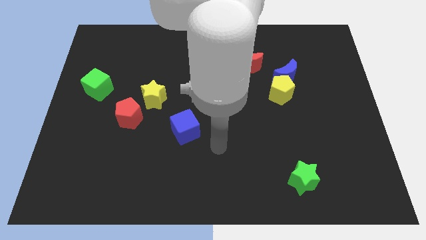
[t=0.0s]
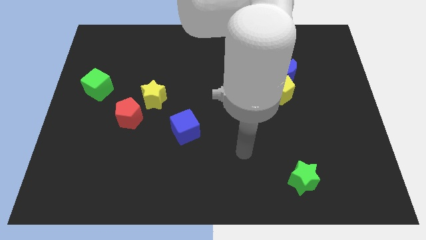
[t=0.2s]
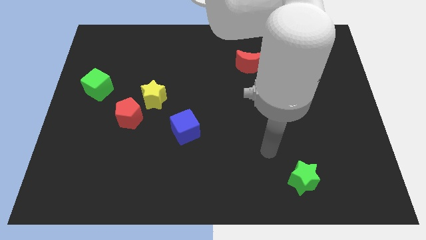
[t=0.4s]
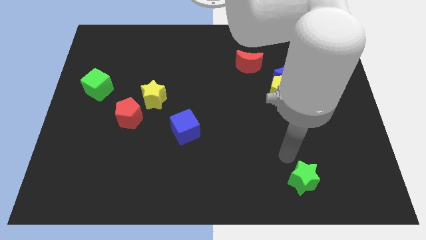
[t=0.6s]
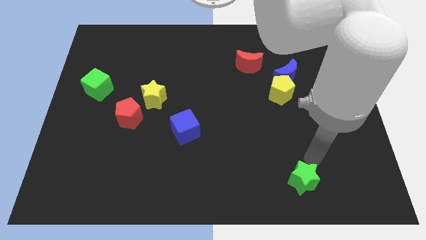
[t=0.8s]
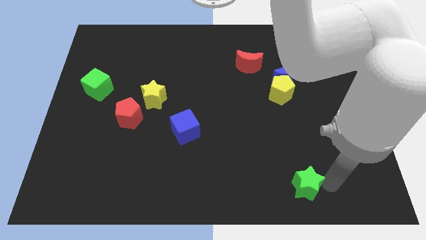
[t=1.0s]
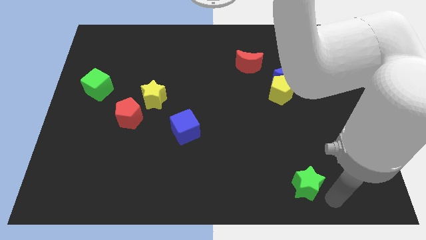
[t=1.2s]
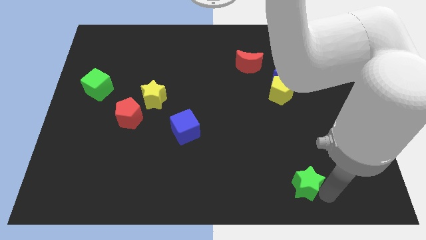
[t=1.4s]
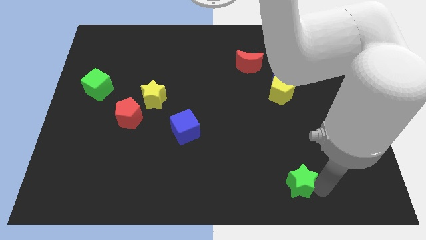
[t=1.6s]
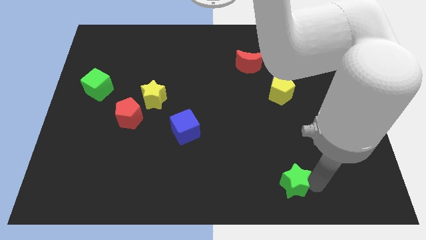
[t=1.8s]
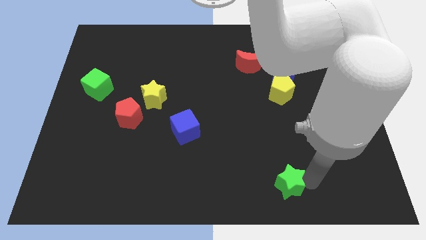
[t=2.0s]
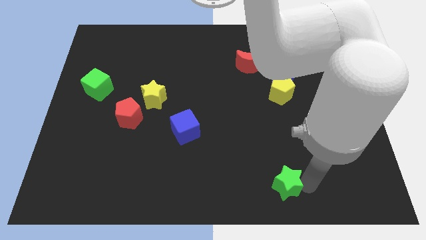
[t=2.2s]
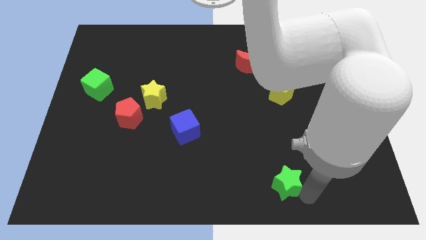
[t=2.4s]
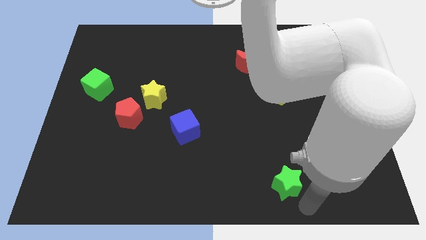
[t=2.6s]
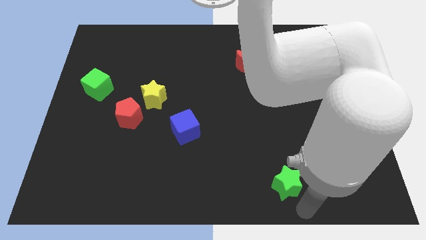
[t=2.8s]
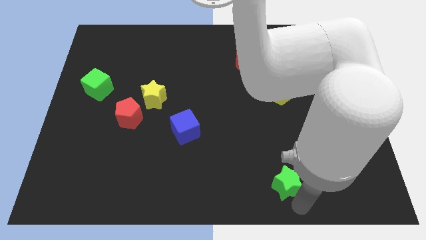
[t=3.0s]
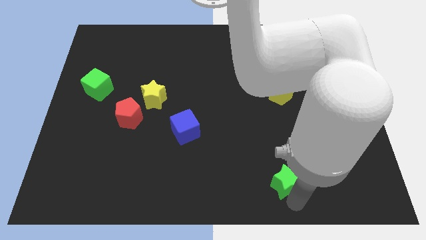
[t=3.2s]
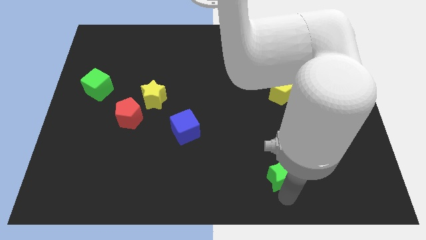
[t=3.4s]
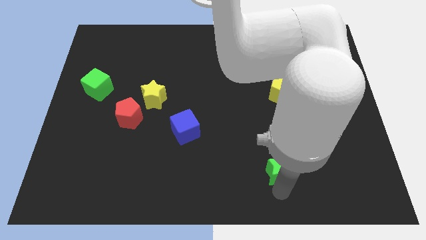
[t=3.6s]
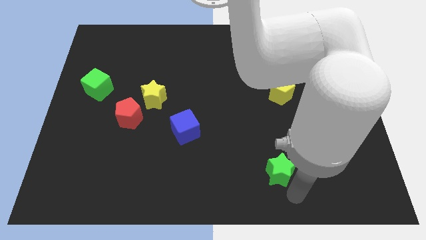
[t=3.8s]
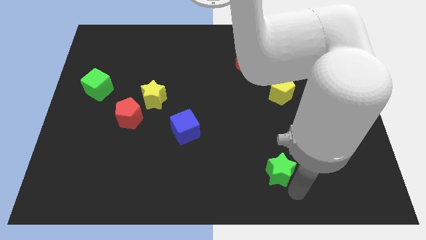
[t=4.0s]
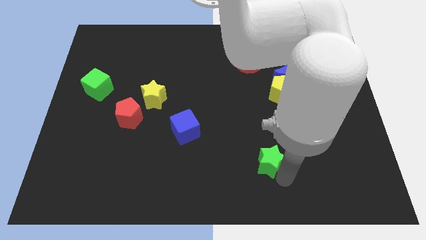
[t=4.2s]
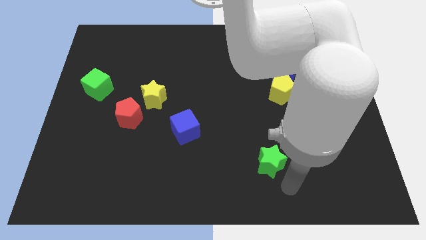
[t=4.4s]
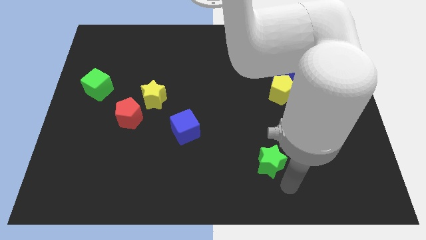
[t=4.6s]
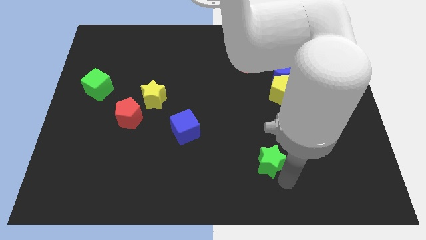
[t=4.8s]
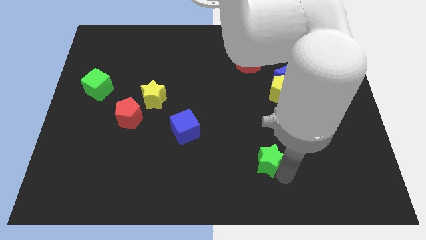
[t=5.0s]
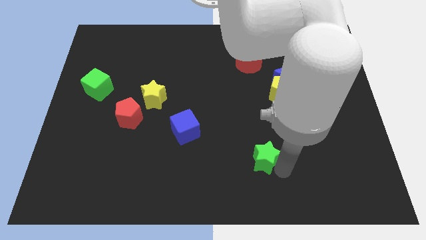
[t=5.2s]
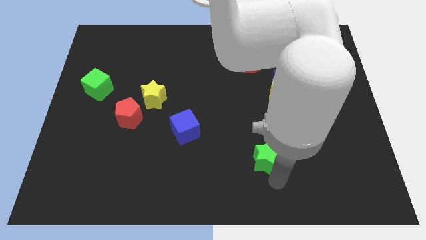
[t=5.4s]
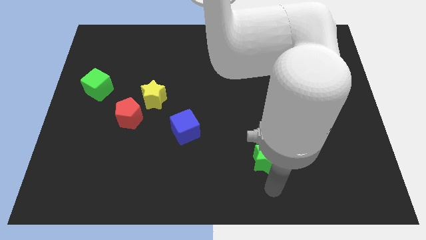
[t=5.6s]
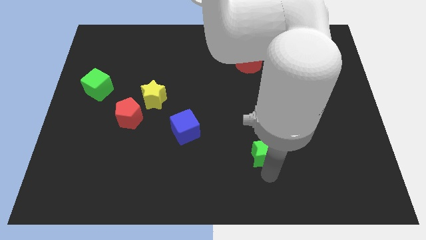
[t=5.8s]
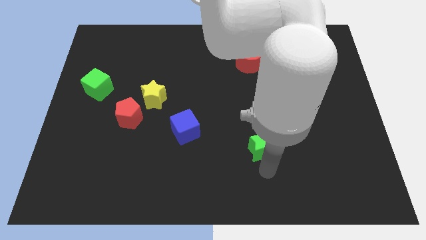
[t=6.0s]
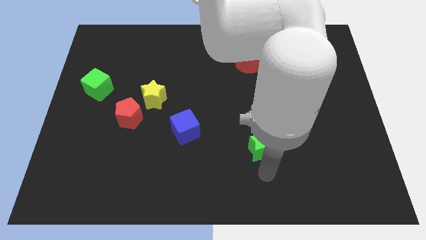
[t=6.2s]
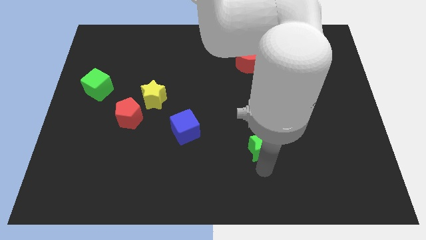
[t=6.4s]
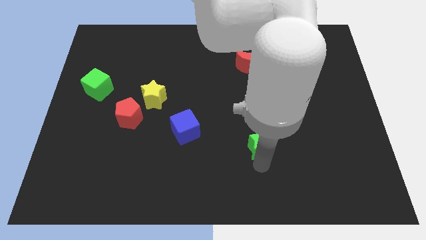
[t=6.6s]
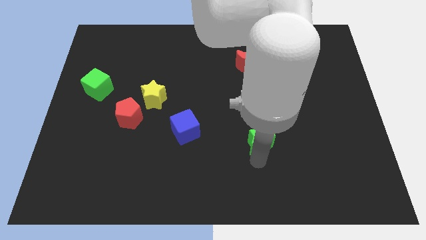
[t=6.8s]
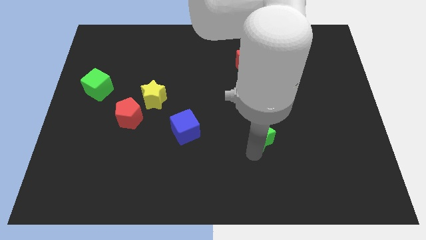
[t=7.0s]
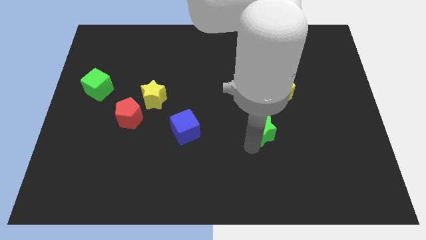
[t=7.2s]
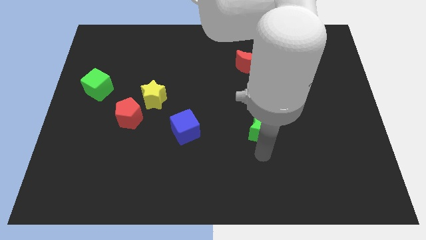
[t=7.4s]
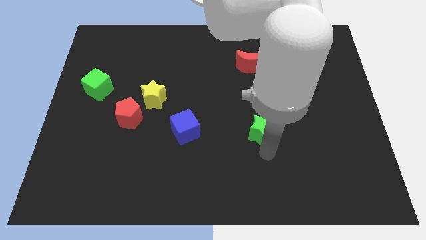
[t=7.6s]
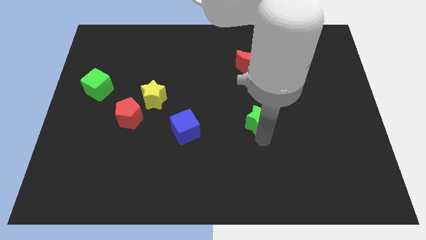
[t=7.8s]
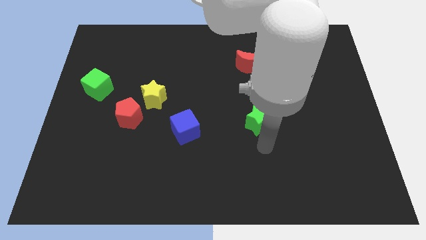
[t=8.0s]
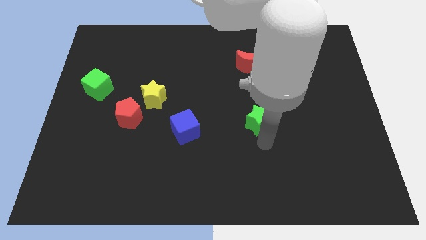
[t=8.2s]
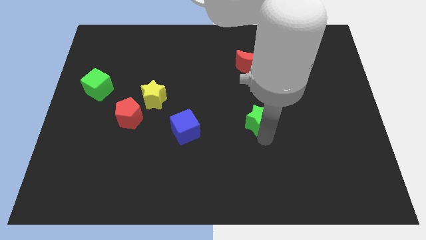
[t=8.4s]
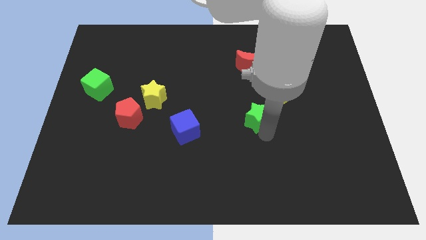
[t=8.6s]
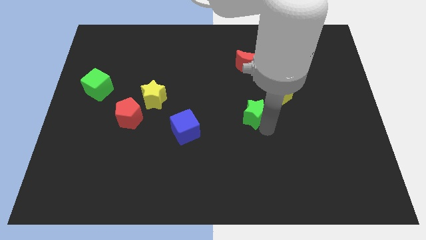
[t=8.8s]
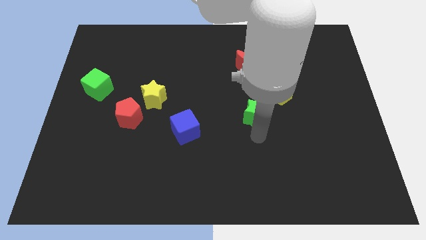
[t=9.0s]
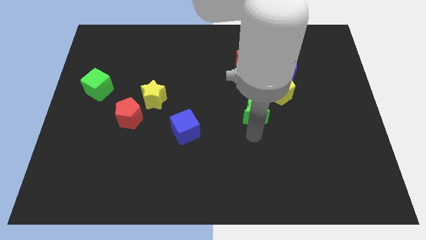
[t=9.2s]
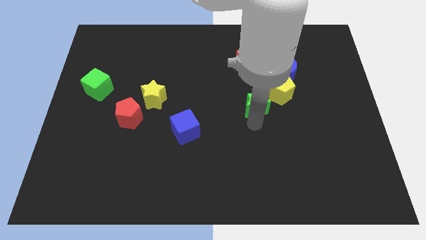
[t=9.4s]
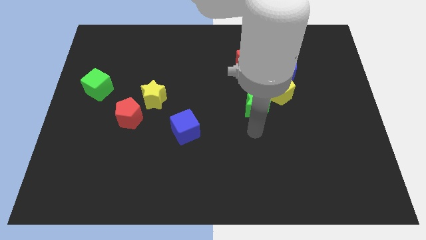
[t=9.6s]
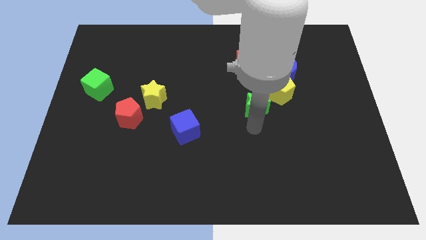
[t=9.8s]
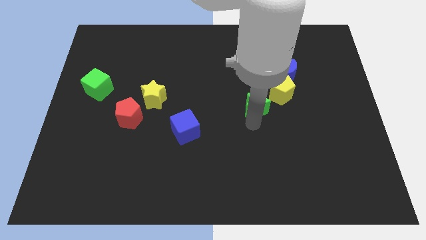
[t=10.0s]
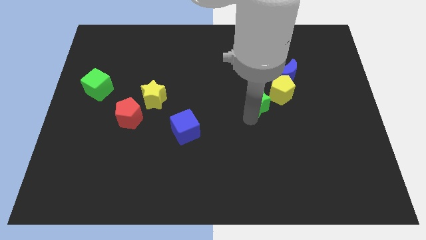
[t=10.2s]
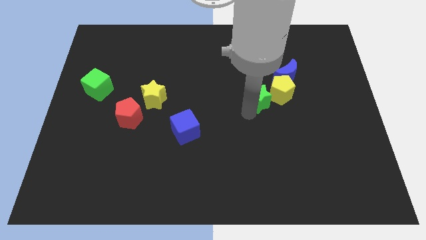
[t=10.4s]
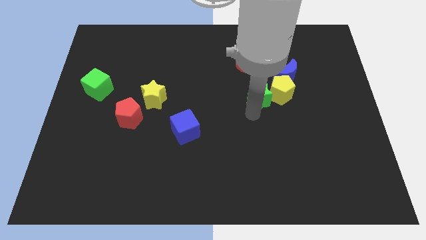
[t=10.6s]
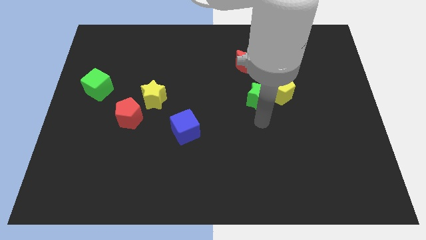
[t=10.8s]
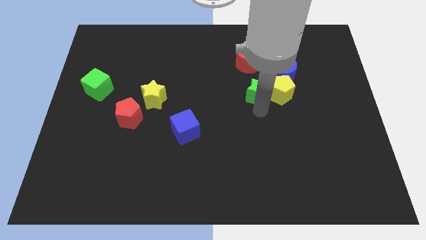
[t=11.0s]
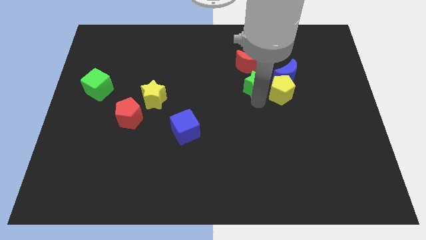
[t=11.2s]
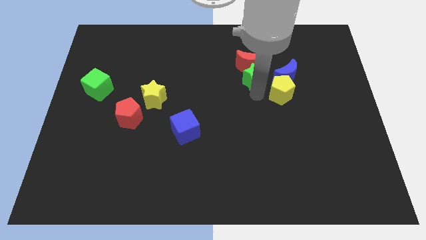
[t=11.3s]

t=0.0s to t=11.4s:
push the green star to the red moon

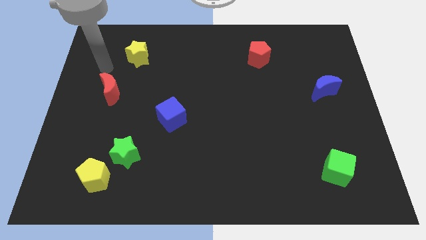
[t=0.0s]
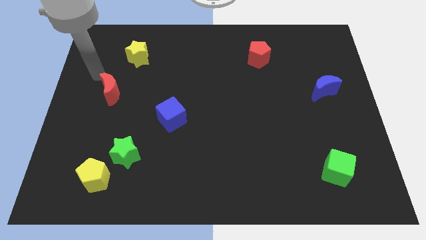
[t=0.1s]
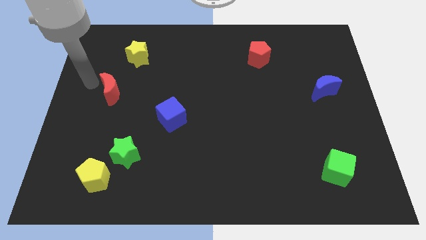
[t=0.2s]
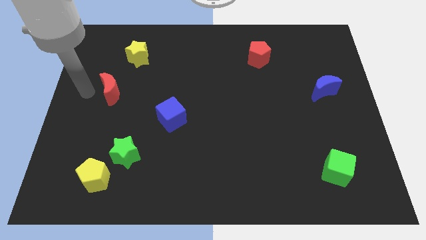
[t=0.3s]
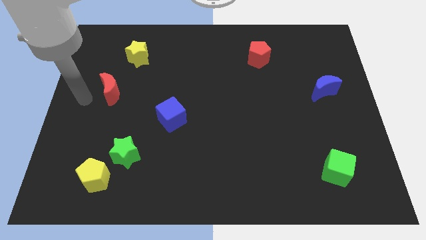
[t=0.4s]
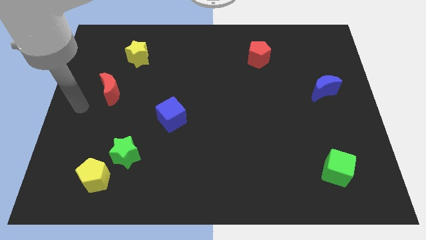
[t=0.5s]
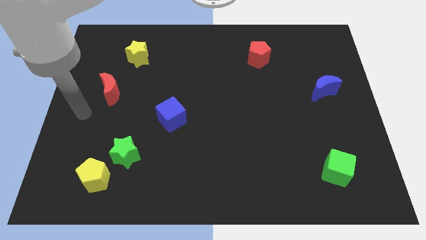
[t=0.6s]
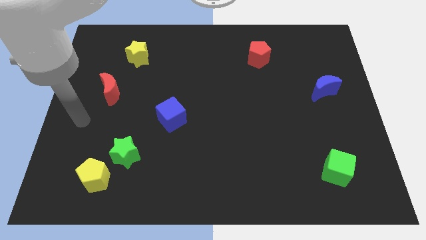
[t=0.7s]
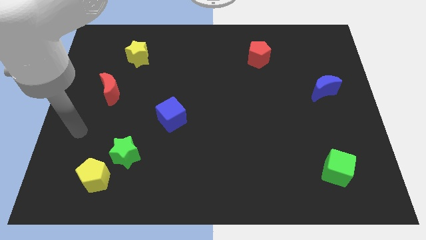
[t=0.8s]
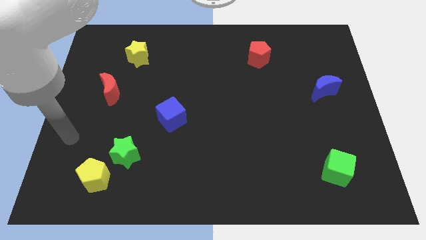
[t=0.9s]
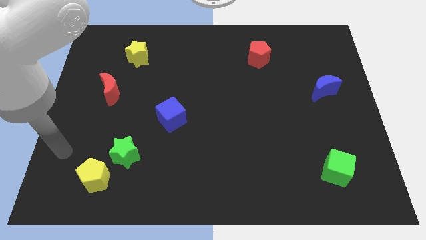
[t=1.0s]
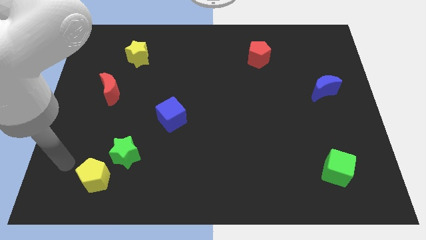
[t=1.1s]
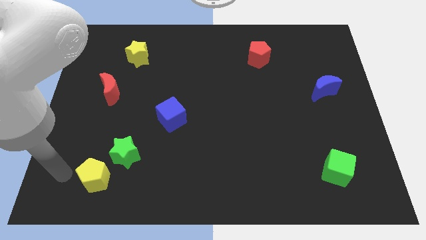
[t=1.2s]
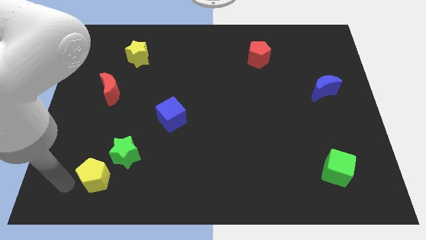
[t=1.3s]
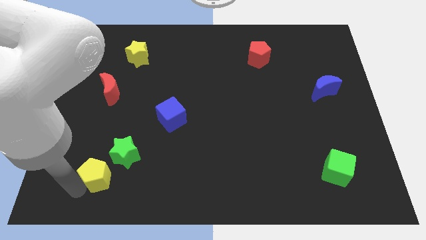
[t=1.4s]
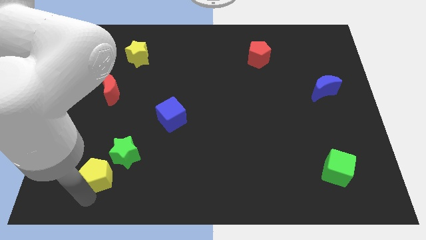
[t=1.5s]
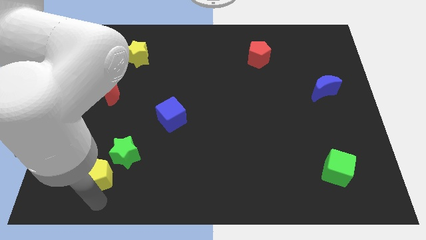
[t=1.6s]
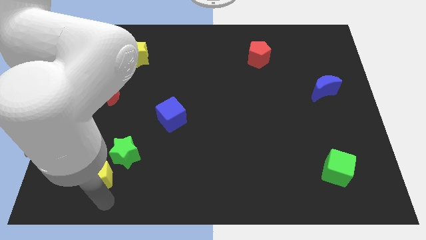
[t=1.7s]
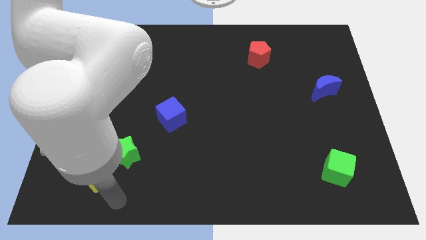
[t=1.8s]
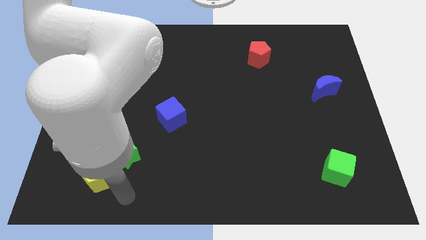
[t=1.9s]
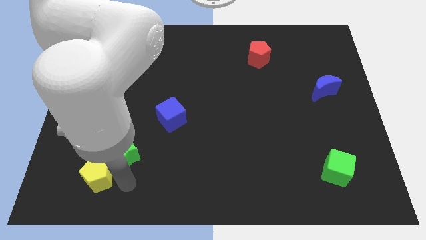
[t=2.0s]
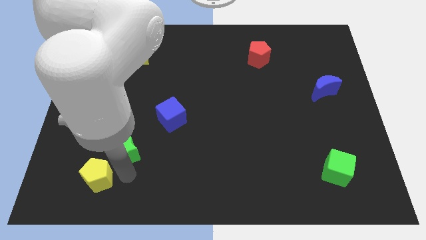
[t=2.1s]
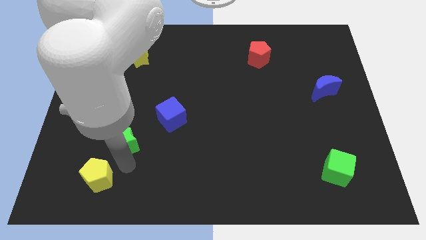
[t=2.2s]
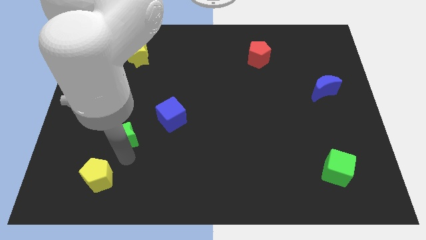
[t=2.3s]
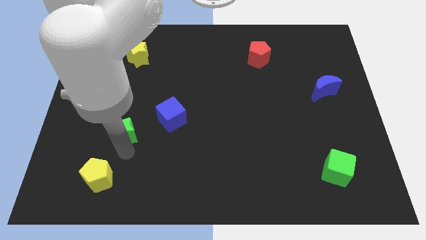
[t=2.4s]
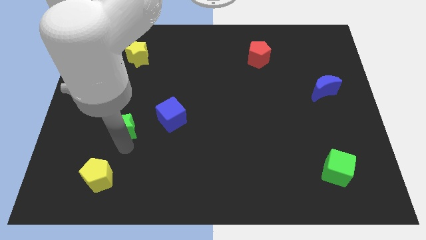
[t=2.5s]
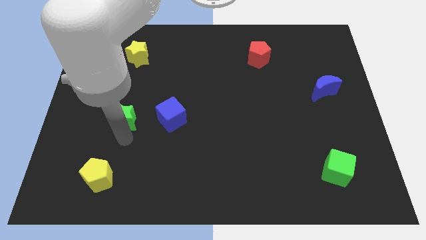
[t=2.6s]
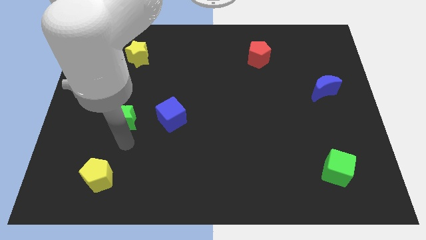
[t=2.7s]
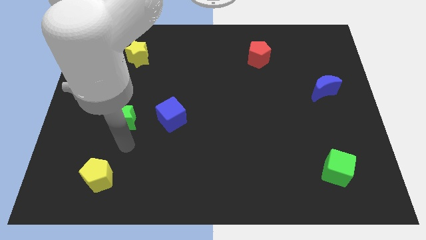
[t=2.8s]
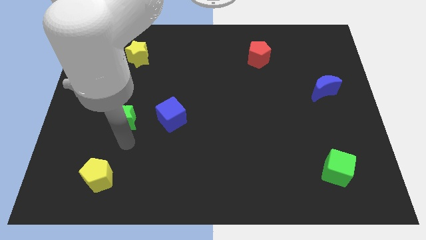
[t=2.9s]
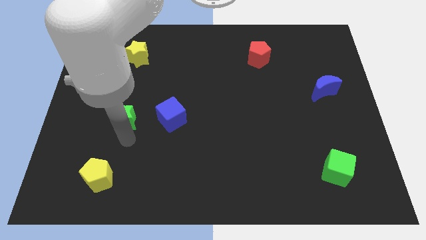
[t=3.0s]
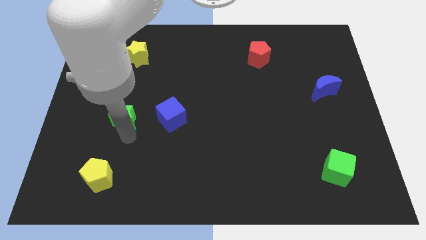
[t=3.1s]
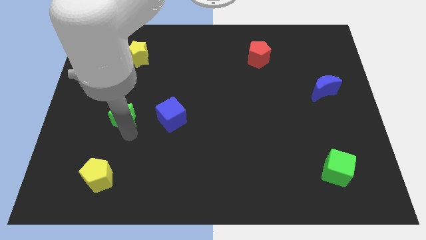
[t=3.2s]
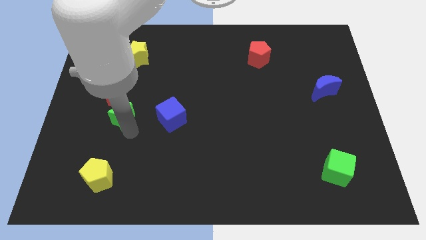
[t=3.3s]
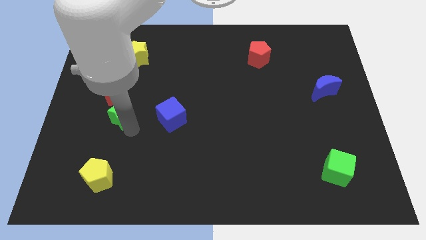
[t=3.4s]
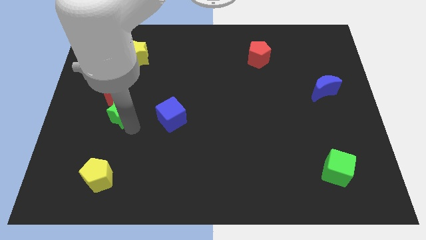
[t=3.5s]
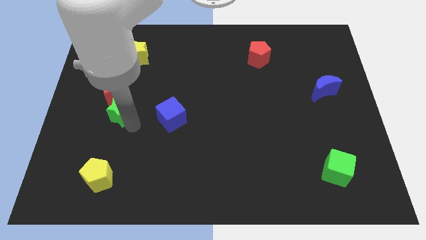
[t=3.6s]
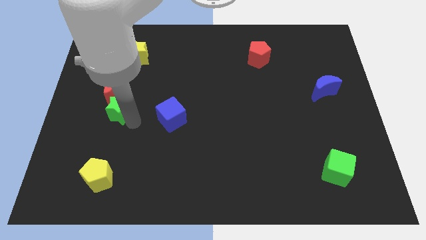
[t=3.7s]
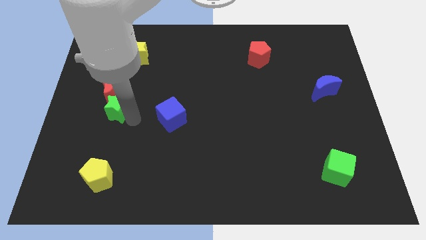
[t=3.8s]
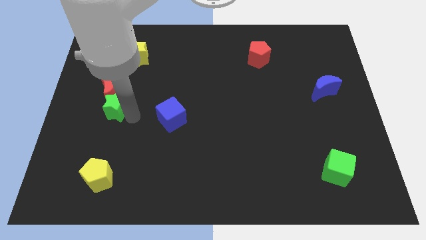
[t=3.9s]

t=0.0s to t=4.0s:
push the green star next to the red moon
